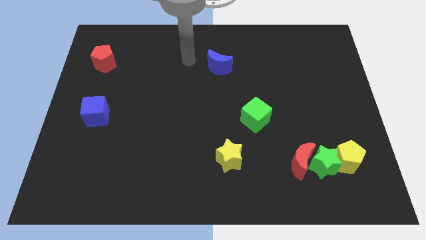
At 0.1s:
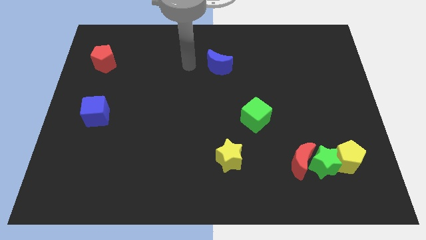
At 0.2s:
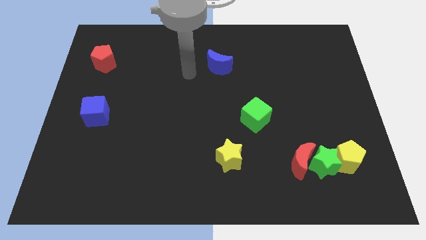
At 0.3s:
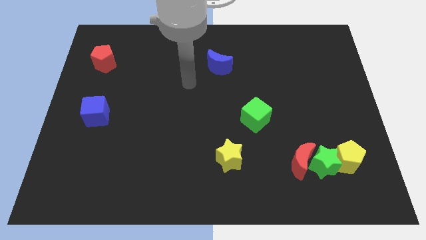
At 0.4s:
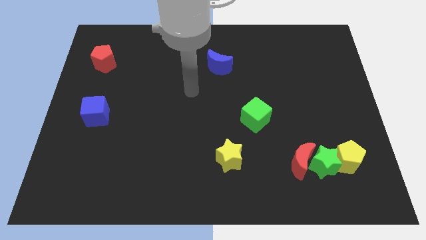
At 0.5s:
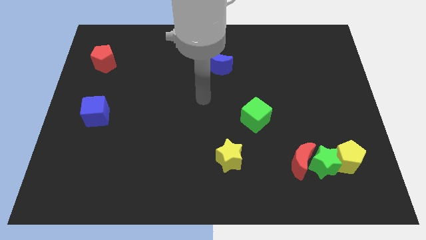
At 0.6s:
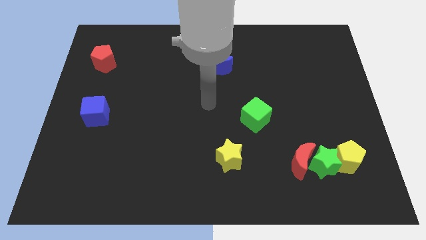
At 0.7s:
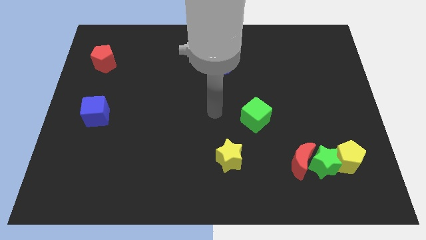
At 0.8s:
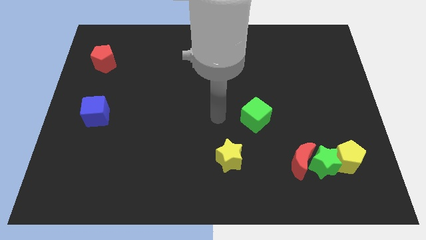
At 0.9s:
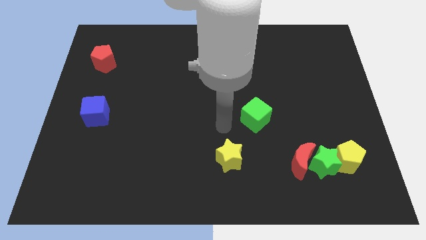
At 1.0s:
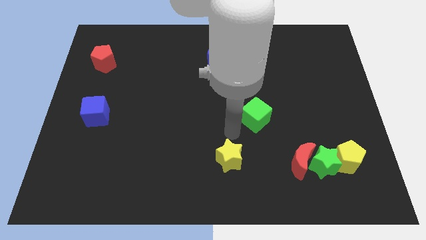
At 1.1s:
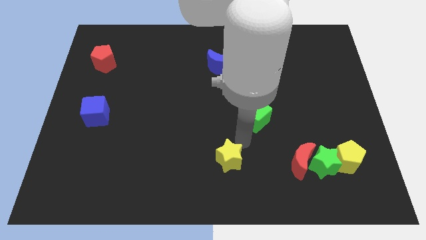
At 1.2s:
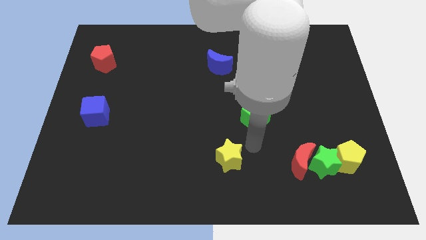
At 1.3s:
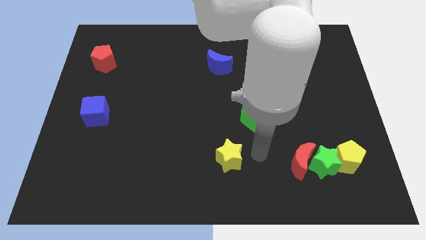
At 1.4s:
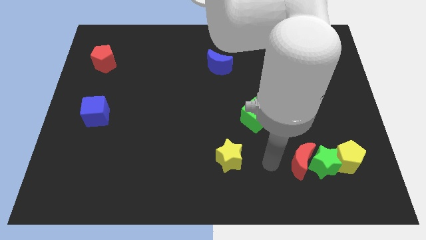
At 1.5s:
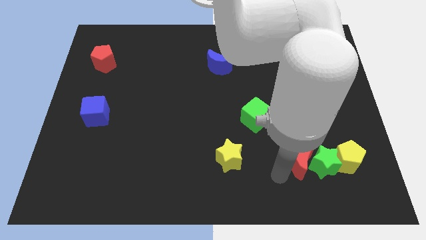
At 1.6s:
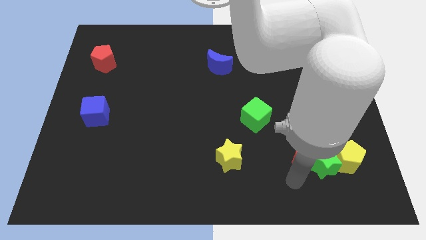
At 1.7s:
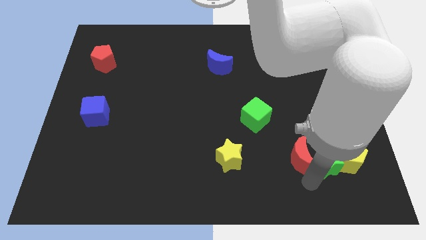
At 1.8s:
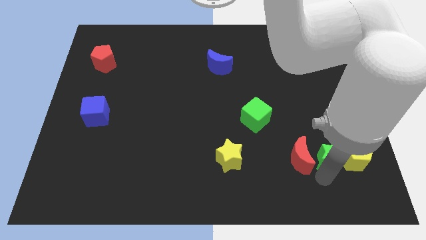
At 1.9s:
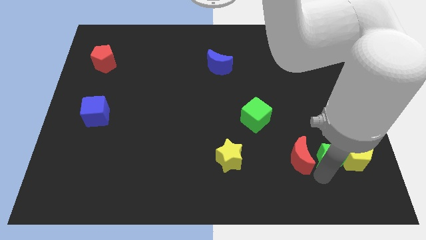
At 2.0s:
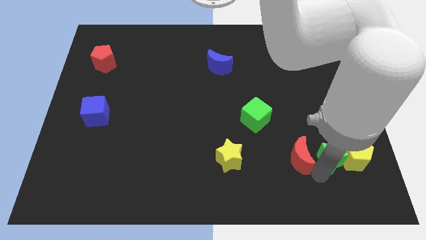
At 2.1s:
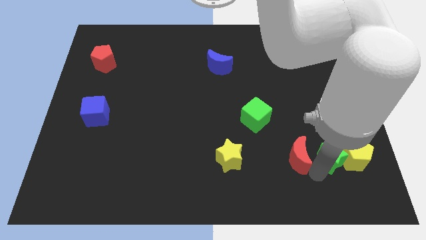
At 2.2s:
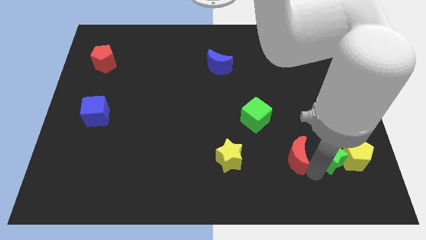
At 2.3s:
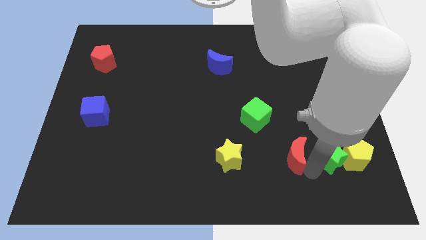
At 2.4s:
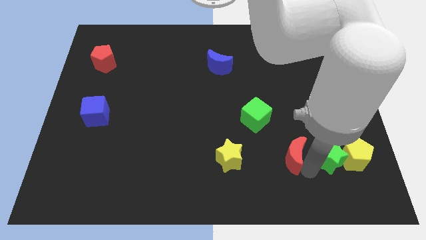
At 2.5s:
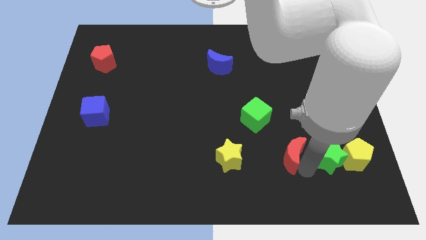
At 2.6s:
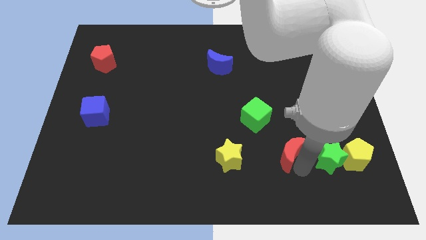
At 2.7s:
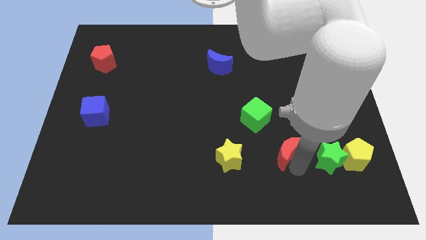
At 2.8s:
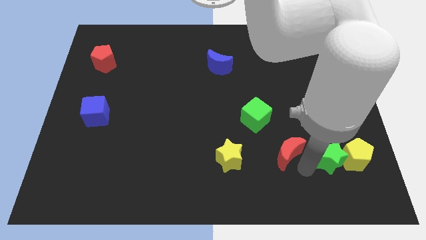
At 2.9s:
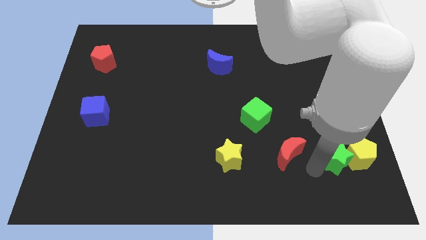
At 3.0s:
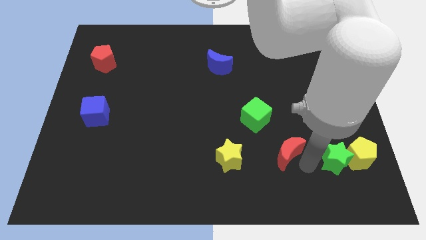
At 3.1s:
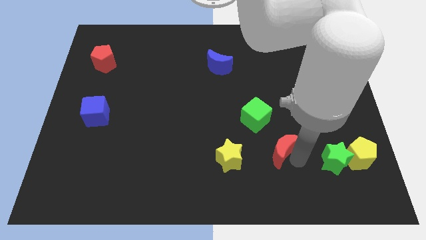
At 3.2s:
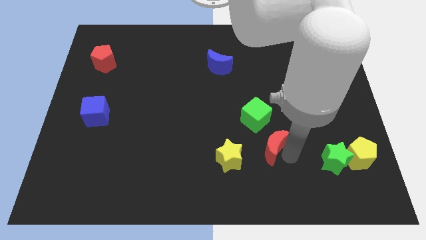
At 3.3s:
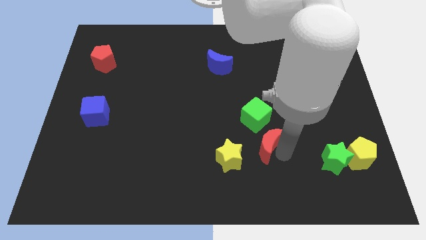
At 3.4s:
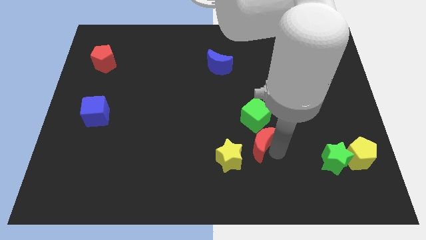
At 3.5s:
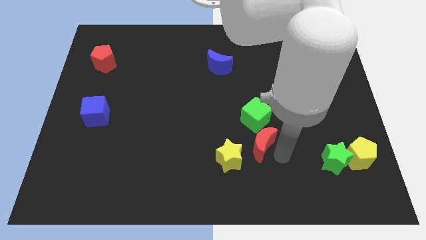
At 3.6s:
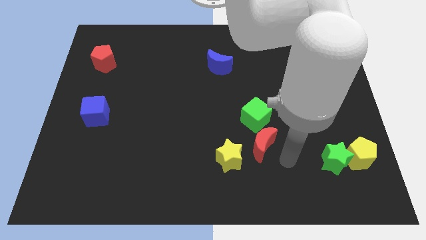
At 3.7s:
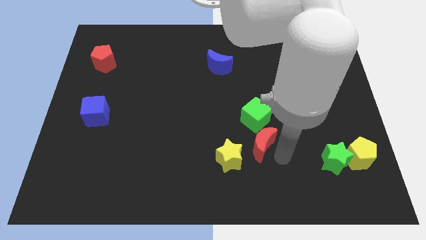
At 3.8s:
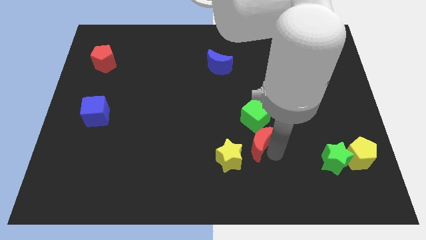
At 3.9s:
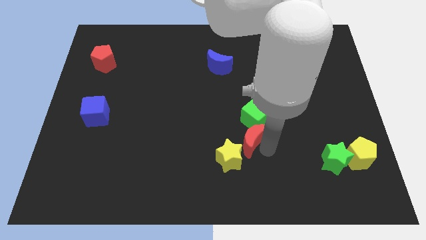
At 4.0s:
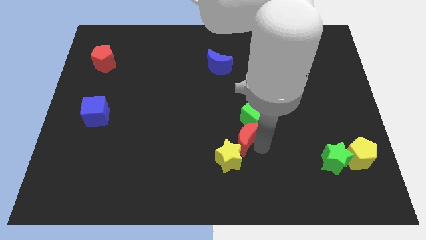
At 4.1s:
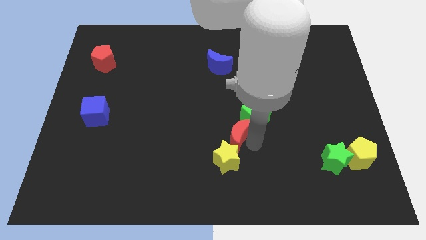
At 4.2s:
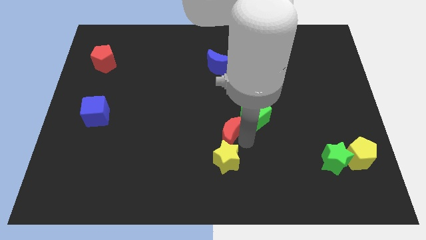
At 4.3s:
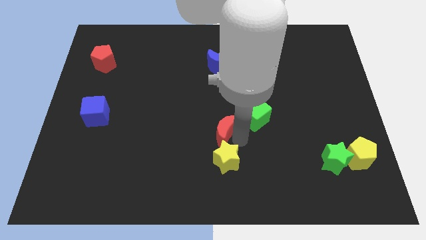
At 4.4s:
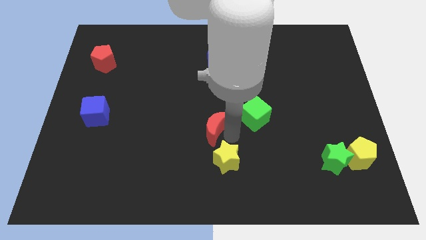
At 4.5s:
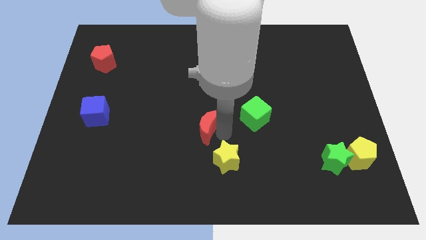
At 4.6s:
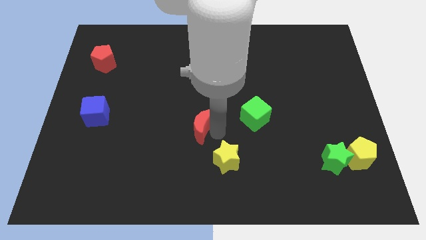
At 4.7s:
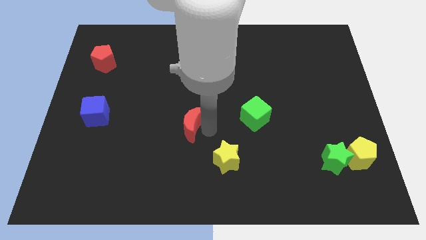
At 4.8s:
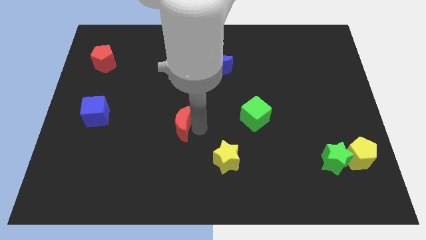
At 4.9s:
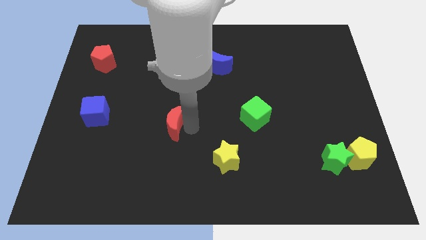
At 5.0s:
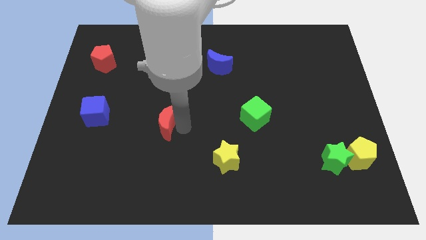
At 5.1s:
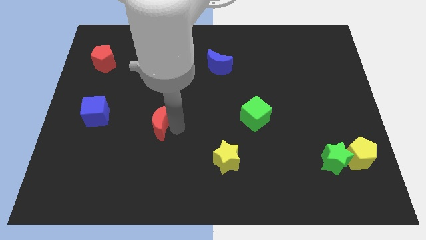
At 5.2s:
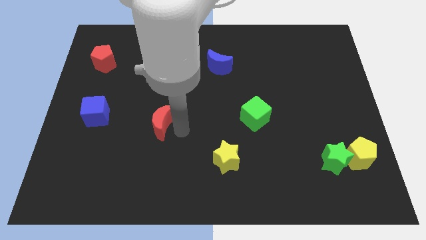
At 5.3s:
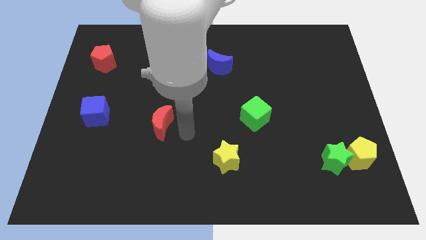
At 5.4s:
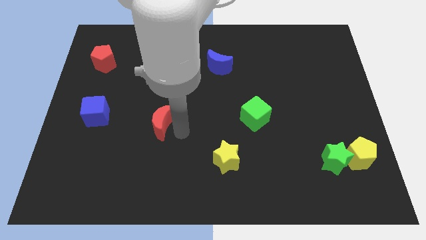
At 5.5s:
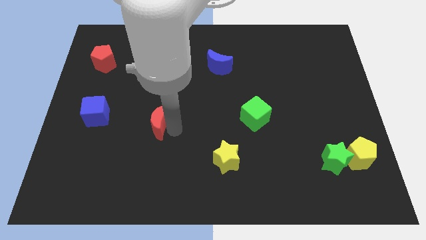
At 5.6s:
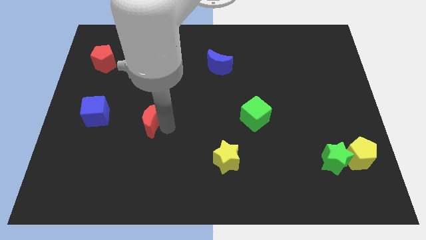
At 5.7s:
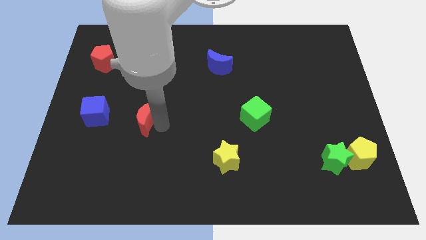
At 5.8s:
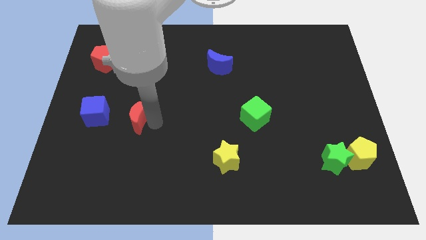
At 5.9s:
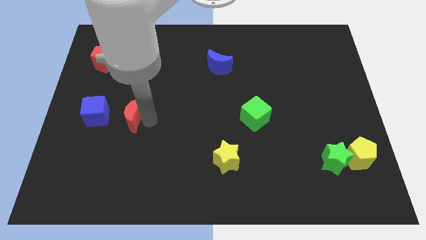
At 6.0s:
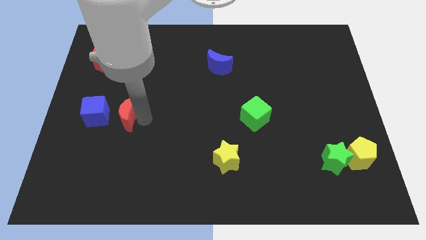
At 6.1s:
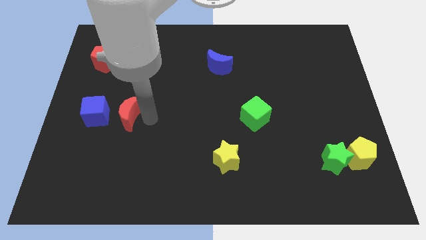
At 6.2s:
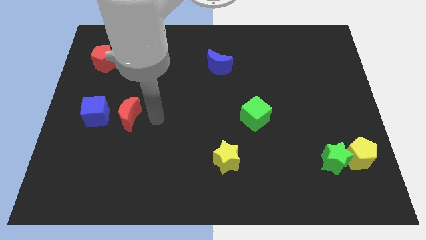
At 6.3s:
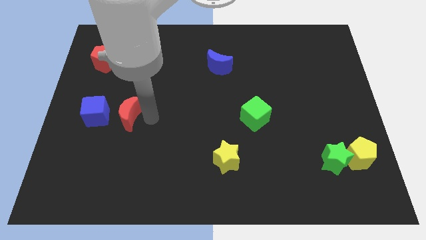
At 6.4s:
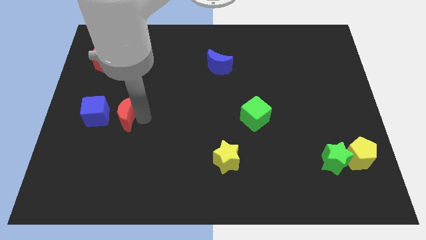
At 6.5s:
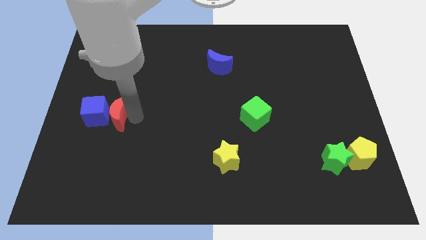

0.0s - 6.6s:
slide the red moon towards the blue cube

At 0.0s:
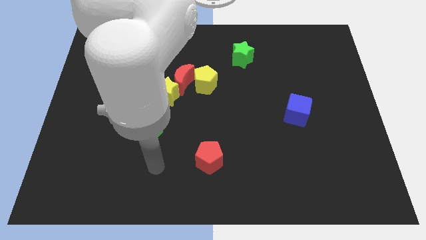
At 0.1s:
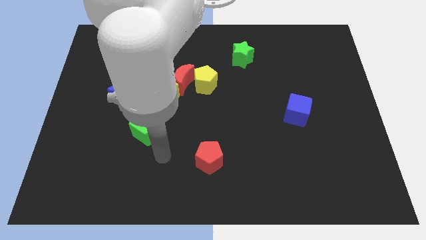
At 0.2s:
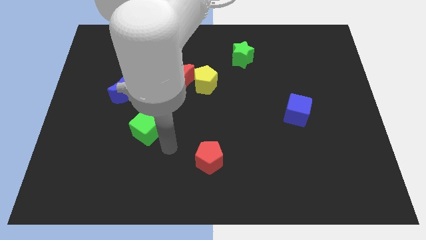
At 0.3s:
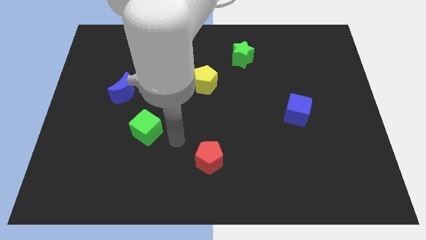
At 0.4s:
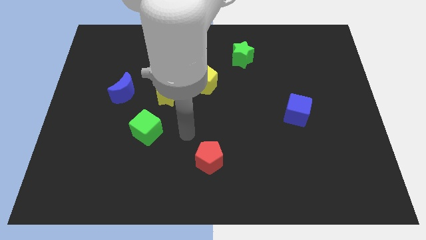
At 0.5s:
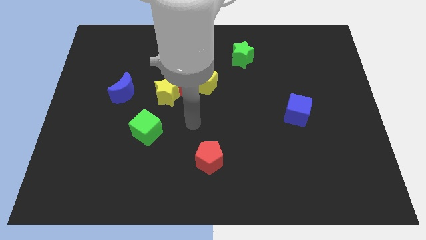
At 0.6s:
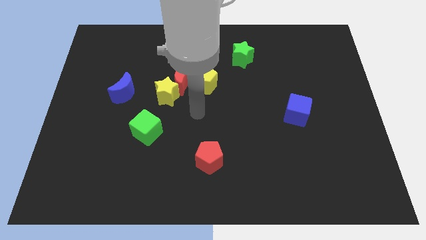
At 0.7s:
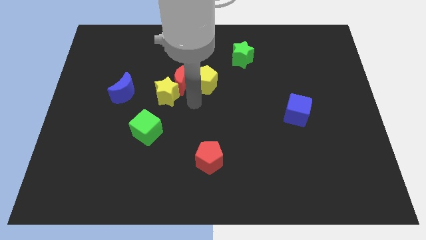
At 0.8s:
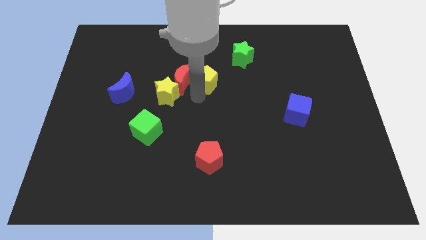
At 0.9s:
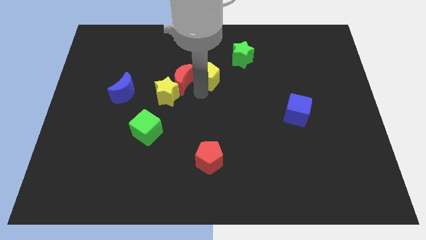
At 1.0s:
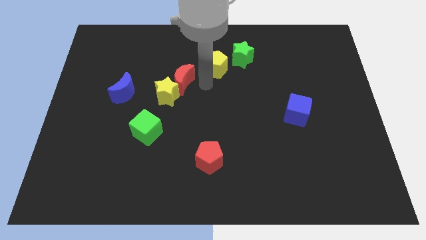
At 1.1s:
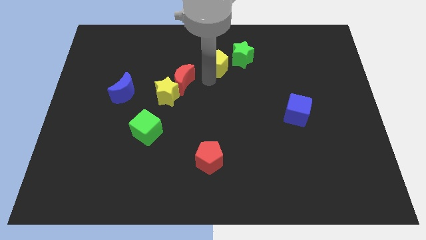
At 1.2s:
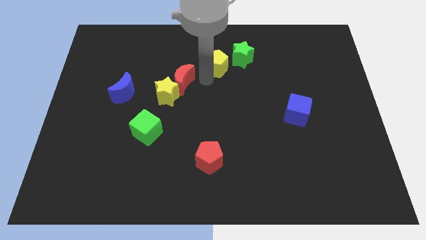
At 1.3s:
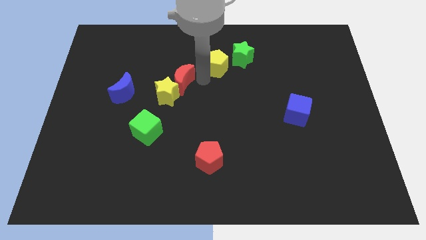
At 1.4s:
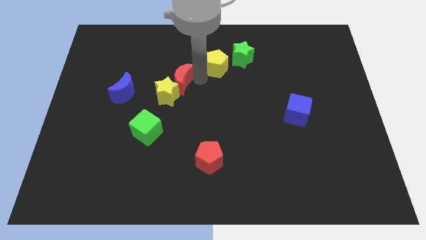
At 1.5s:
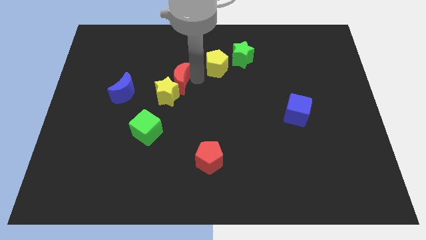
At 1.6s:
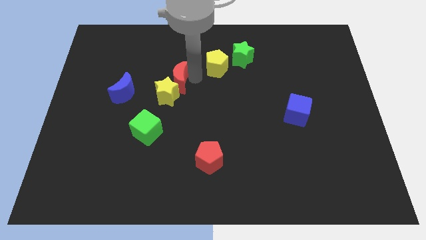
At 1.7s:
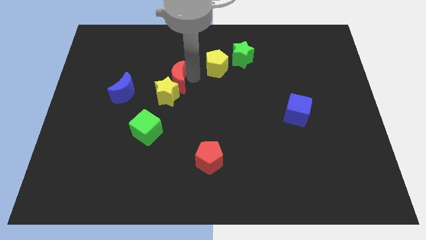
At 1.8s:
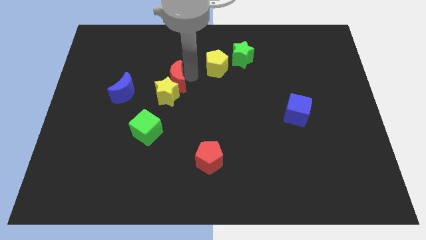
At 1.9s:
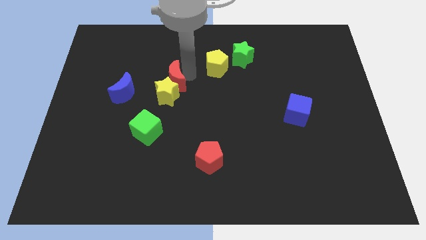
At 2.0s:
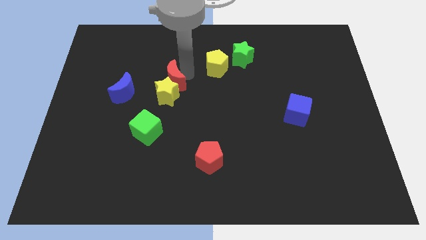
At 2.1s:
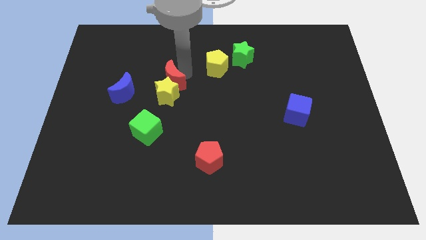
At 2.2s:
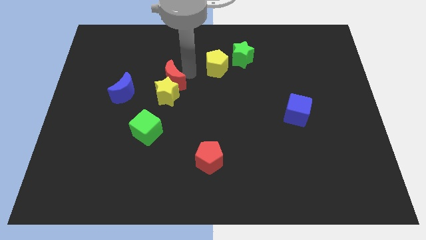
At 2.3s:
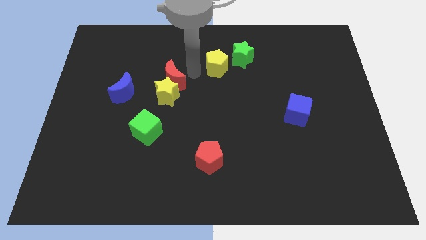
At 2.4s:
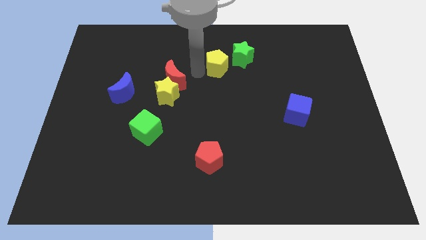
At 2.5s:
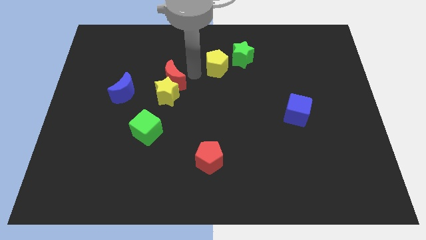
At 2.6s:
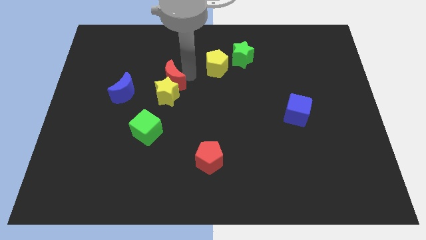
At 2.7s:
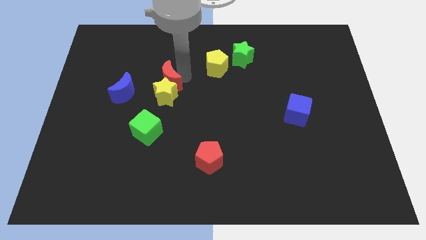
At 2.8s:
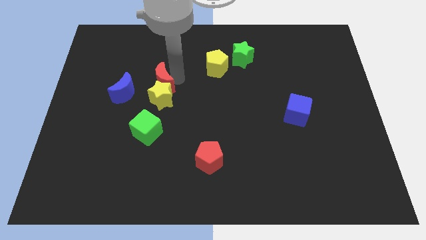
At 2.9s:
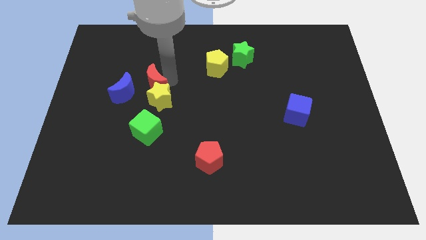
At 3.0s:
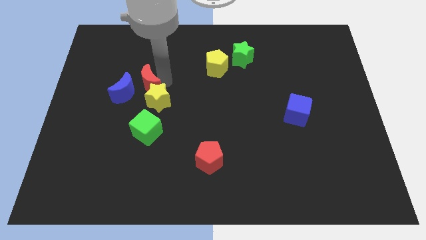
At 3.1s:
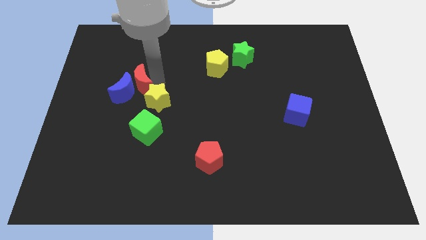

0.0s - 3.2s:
slide the red moon close to the blue moon
